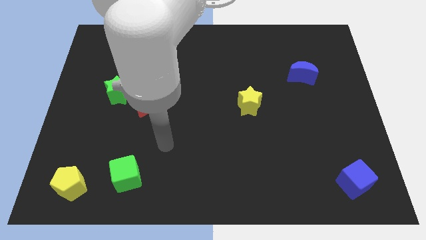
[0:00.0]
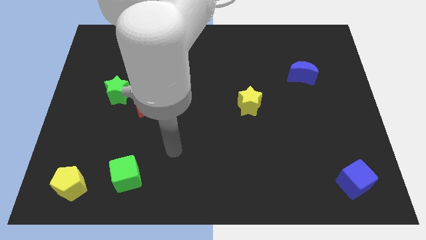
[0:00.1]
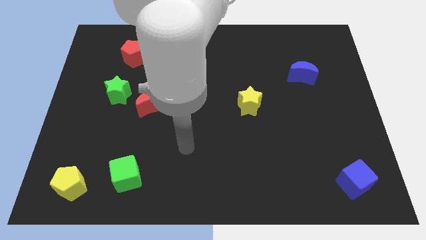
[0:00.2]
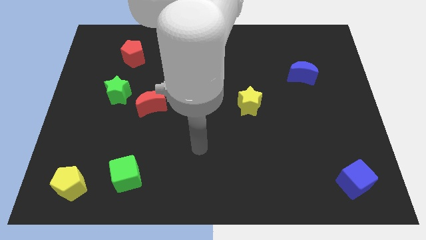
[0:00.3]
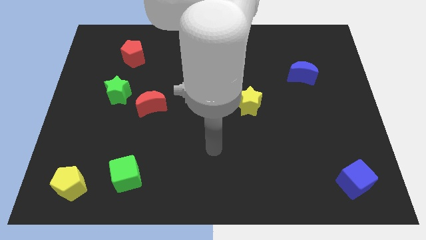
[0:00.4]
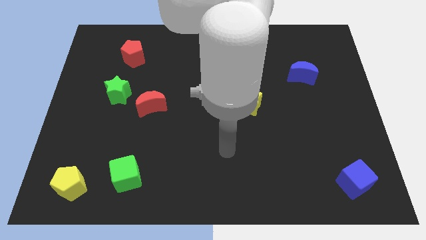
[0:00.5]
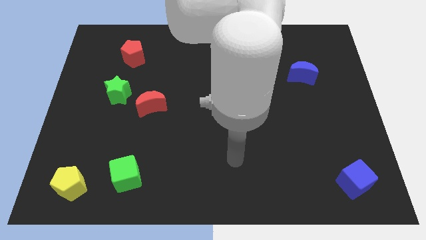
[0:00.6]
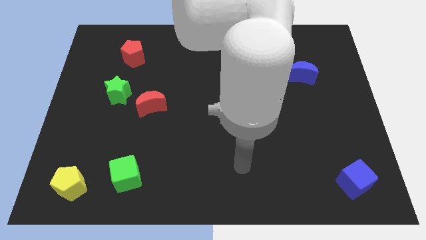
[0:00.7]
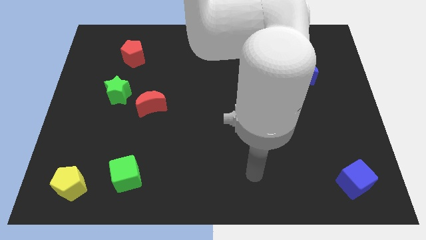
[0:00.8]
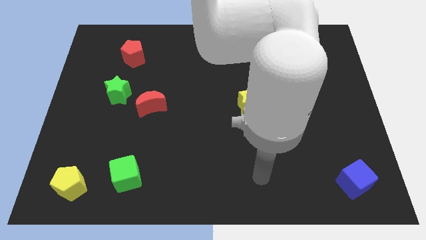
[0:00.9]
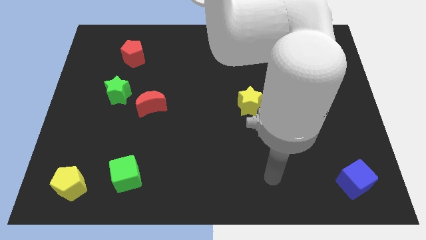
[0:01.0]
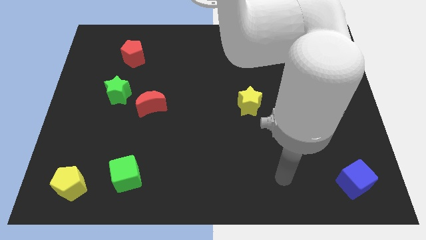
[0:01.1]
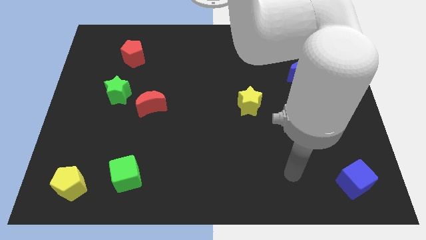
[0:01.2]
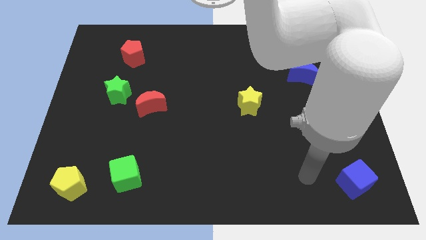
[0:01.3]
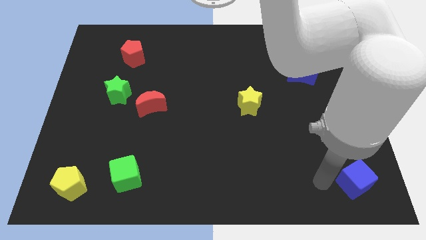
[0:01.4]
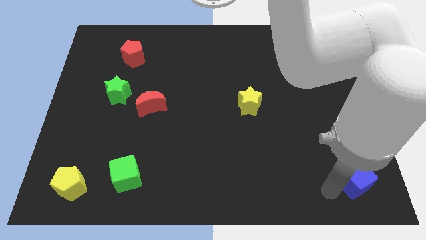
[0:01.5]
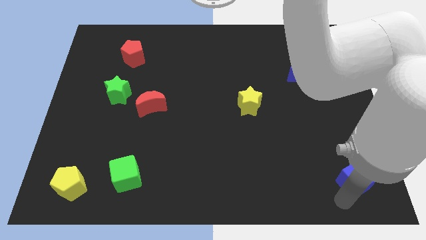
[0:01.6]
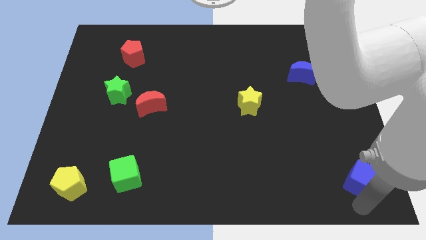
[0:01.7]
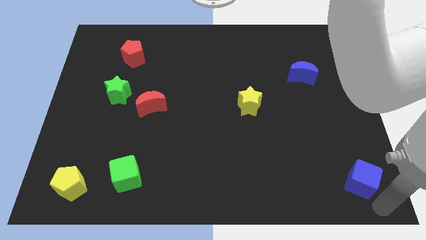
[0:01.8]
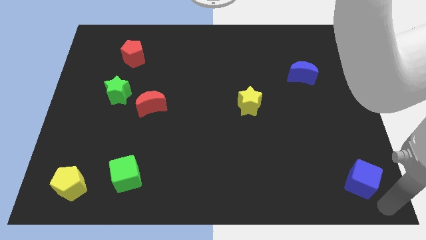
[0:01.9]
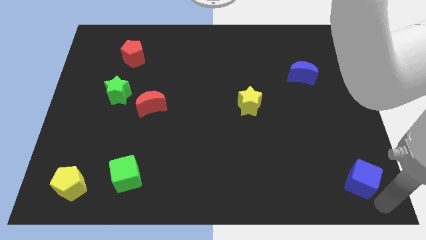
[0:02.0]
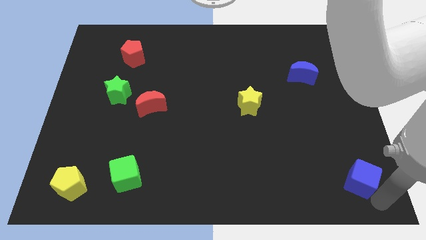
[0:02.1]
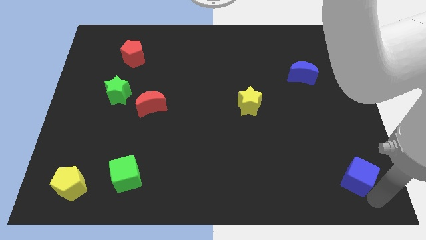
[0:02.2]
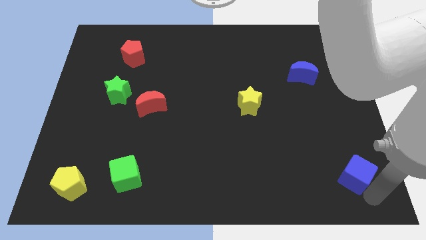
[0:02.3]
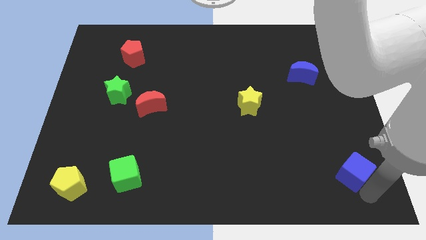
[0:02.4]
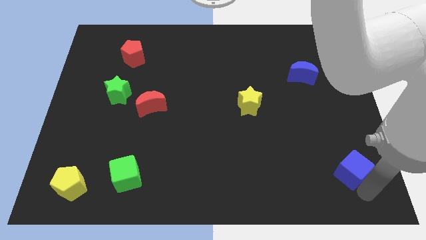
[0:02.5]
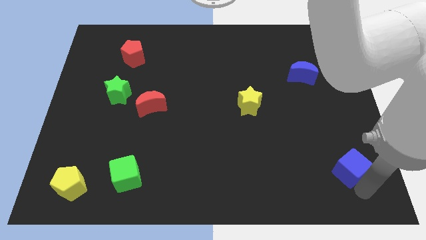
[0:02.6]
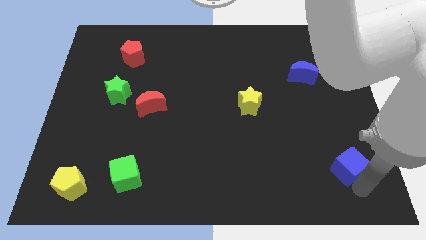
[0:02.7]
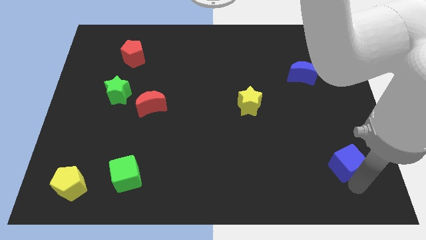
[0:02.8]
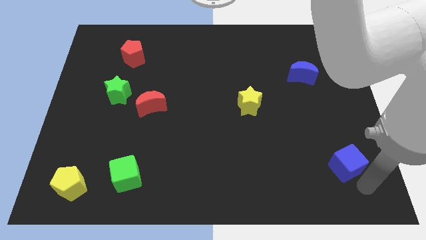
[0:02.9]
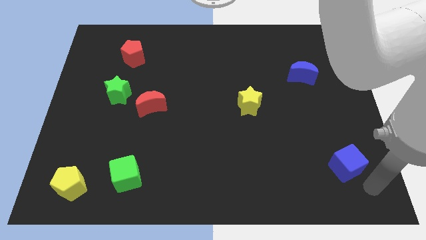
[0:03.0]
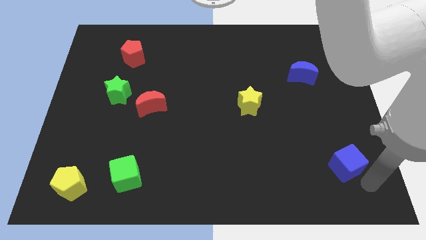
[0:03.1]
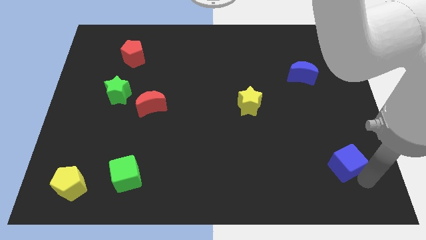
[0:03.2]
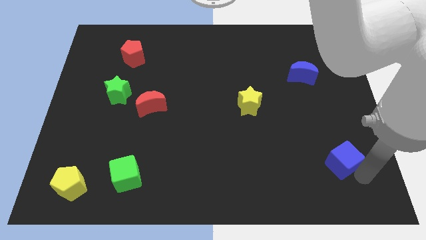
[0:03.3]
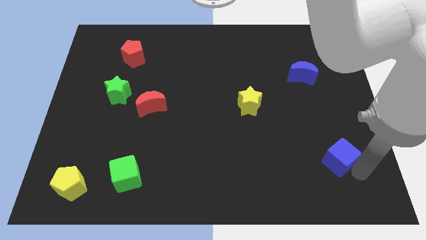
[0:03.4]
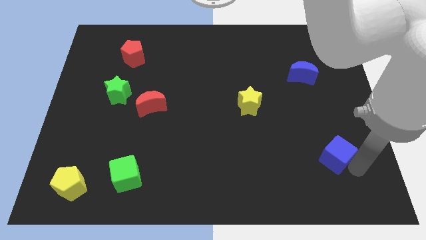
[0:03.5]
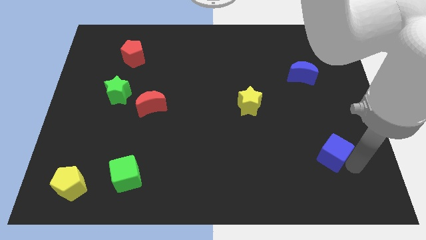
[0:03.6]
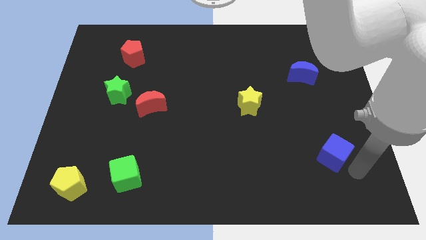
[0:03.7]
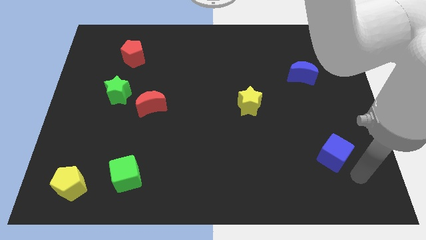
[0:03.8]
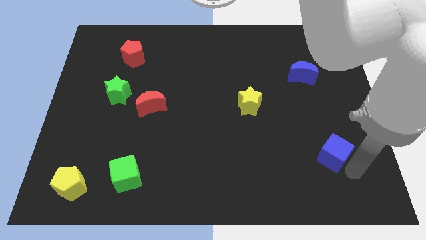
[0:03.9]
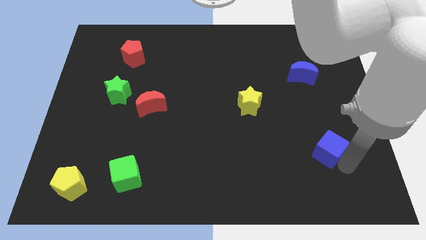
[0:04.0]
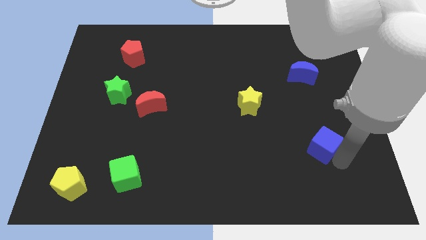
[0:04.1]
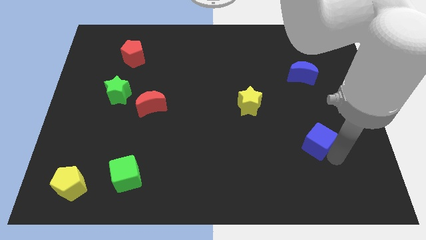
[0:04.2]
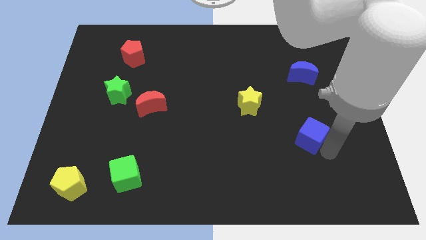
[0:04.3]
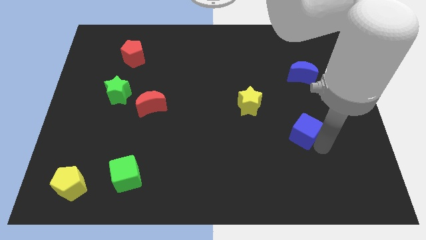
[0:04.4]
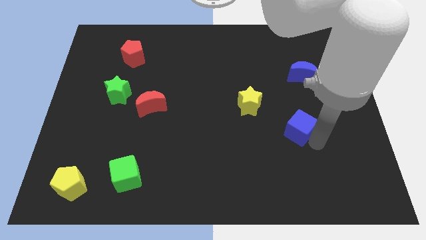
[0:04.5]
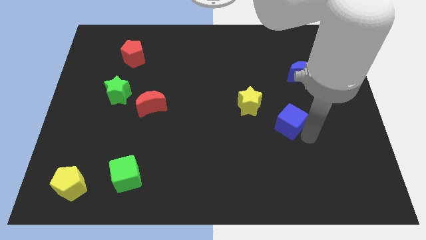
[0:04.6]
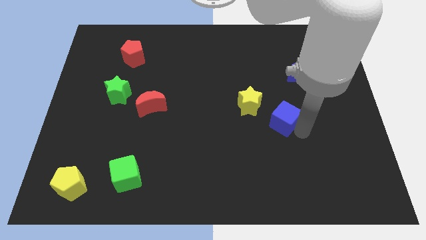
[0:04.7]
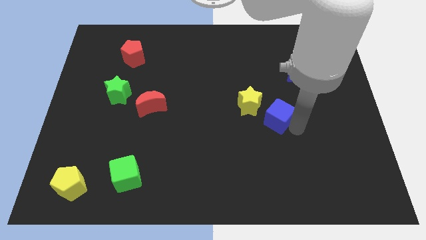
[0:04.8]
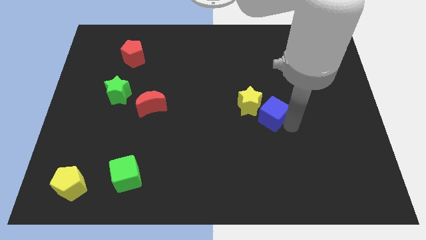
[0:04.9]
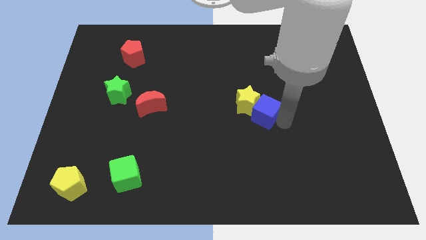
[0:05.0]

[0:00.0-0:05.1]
move the blue cube next to the yellow star

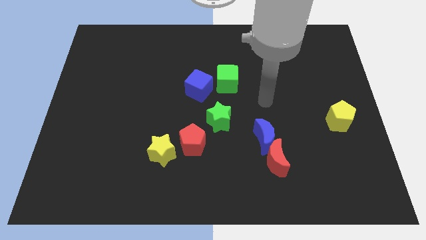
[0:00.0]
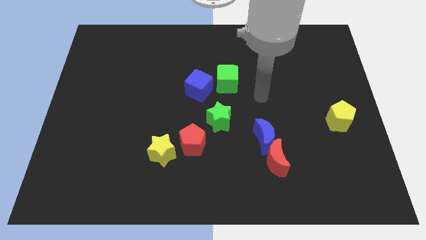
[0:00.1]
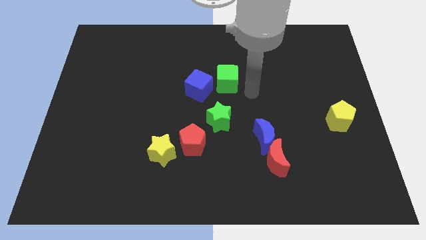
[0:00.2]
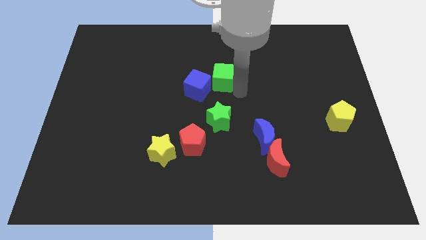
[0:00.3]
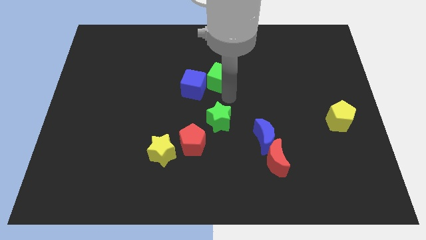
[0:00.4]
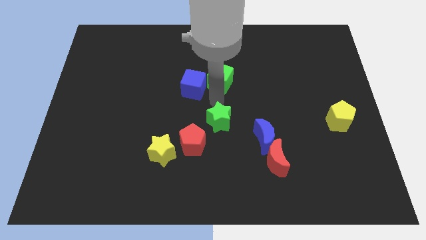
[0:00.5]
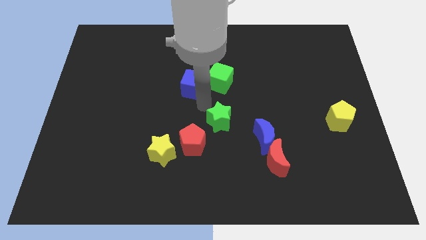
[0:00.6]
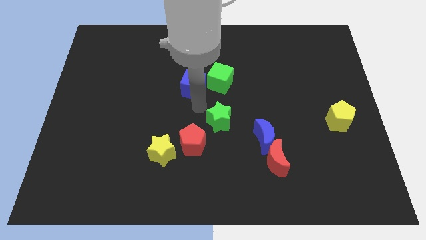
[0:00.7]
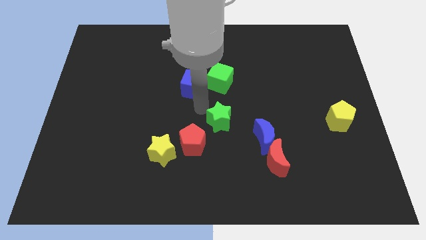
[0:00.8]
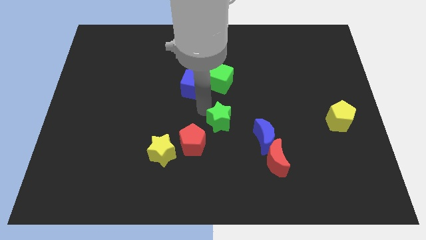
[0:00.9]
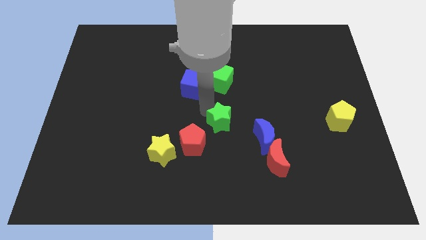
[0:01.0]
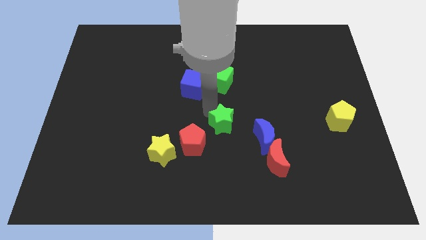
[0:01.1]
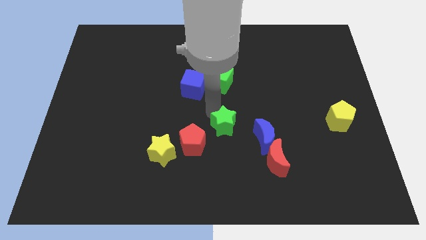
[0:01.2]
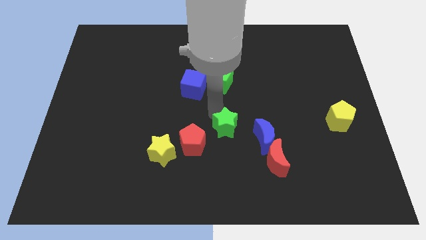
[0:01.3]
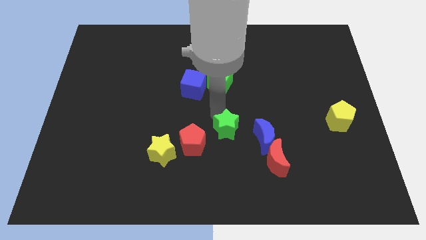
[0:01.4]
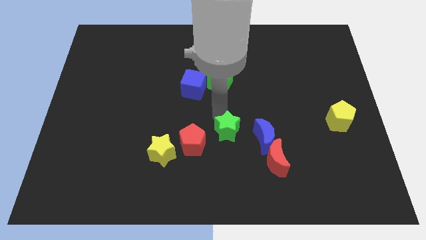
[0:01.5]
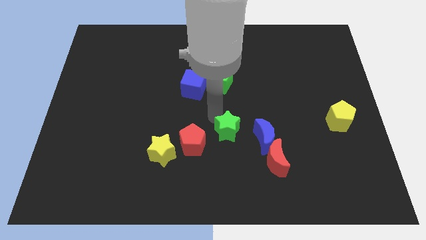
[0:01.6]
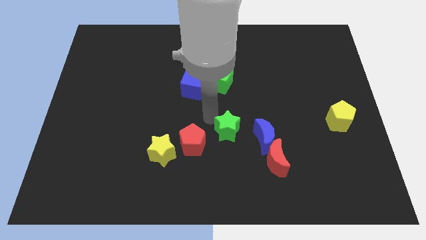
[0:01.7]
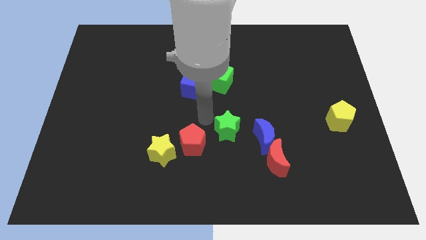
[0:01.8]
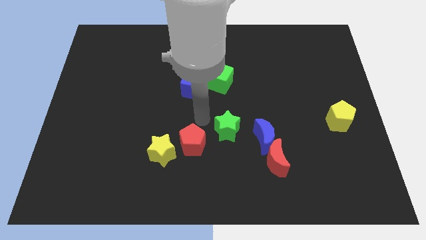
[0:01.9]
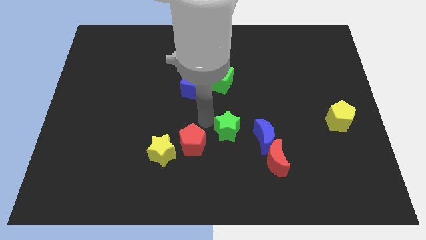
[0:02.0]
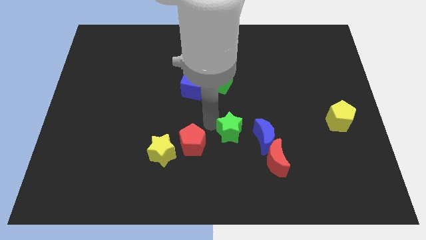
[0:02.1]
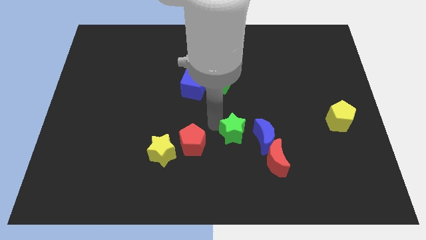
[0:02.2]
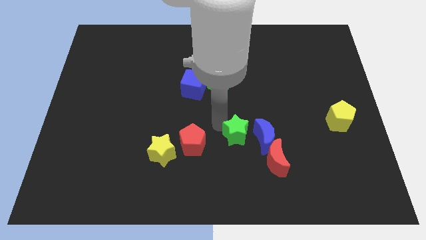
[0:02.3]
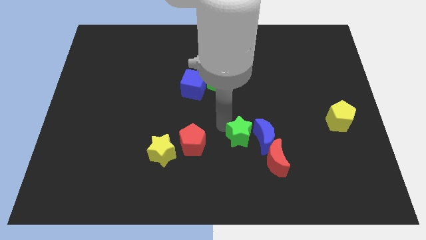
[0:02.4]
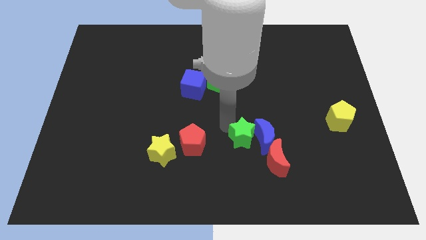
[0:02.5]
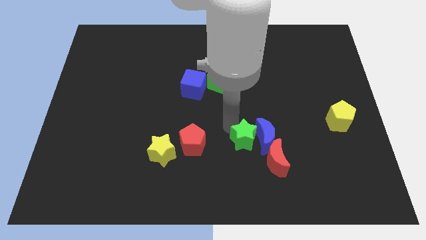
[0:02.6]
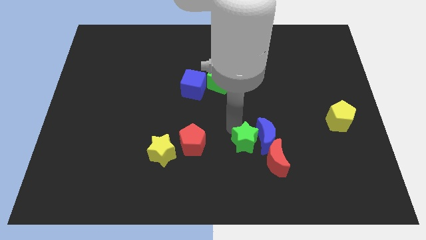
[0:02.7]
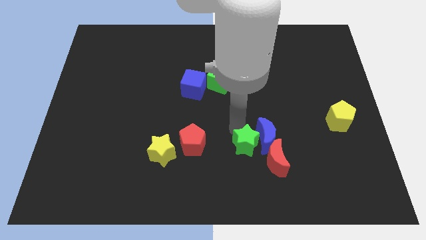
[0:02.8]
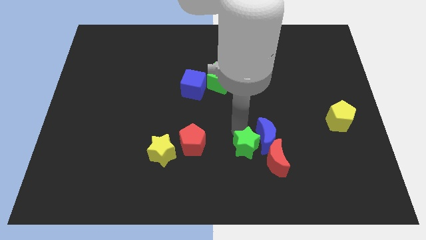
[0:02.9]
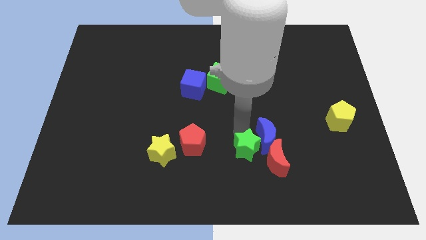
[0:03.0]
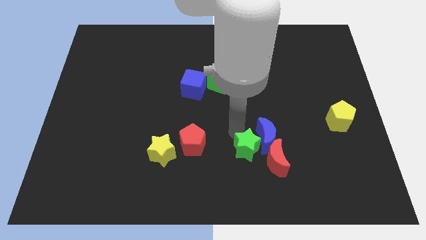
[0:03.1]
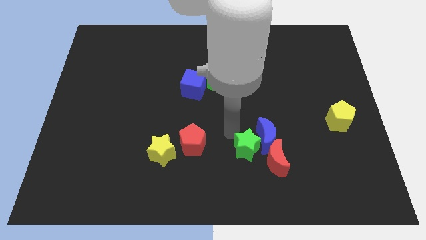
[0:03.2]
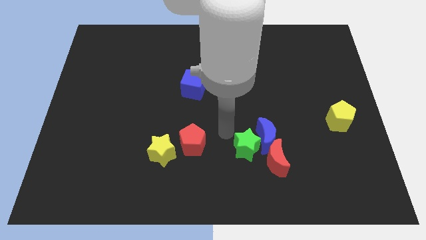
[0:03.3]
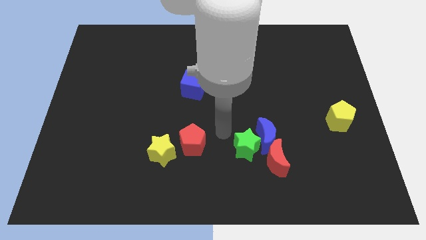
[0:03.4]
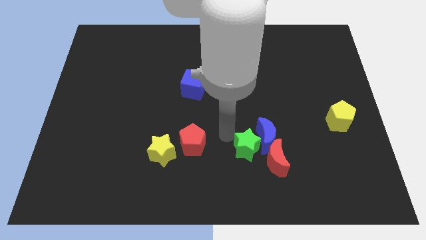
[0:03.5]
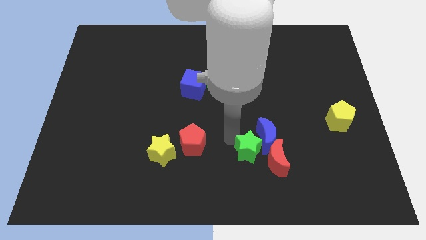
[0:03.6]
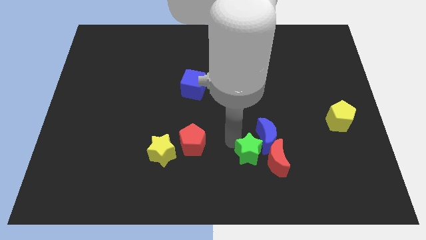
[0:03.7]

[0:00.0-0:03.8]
move the green star next to the red moon
